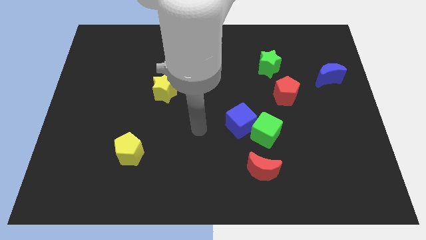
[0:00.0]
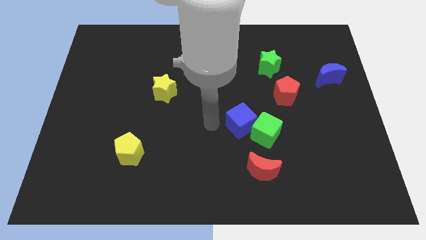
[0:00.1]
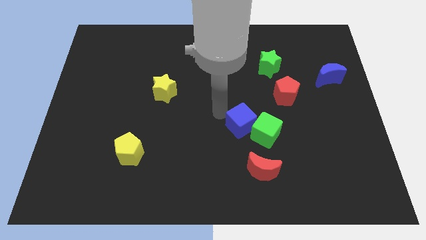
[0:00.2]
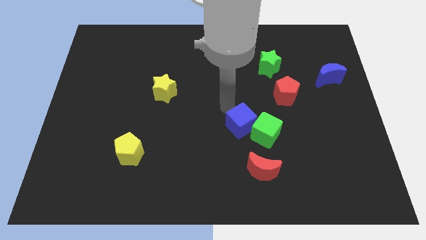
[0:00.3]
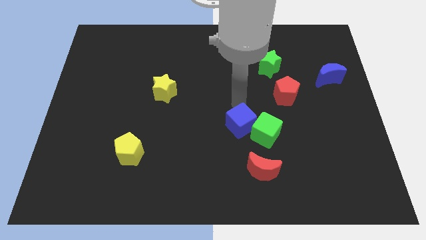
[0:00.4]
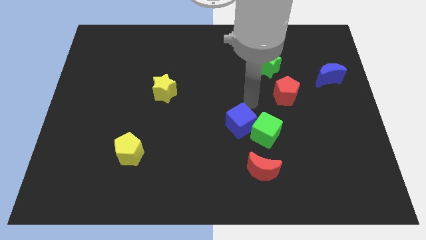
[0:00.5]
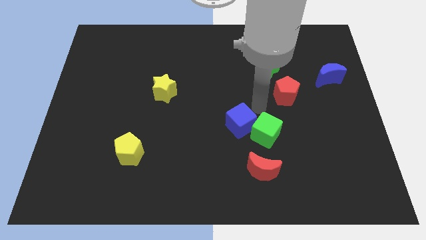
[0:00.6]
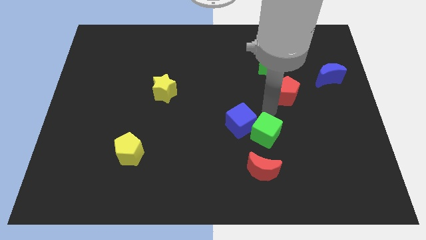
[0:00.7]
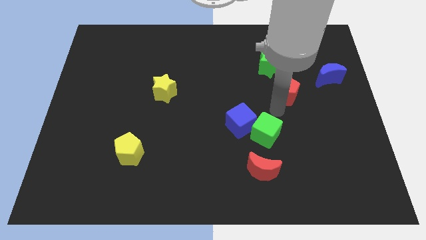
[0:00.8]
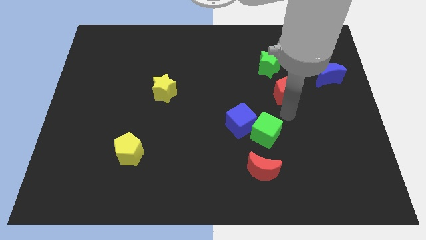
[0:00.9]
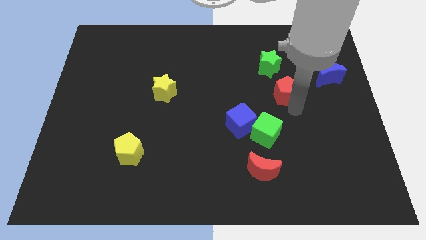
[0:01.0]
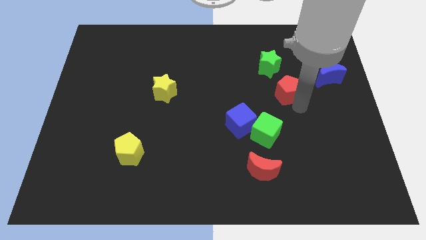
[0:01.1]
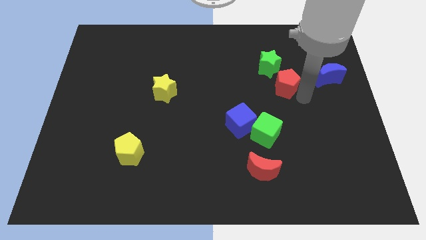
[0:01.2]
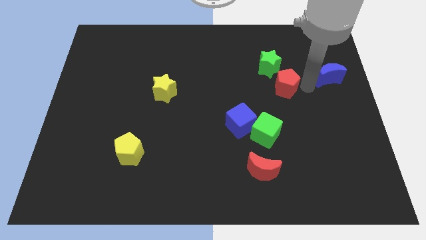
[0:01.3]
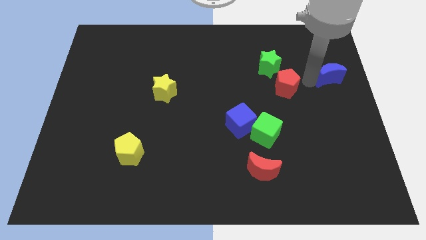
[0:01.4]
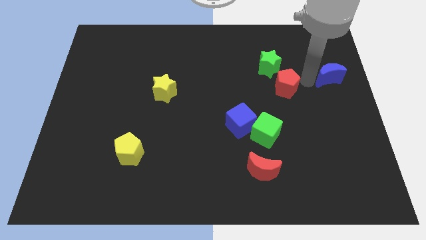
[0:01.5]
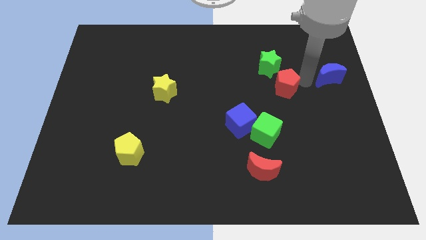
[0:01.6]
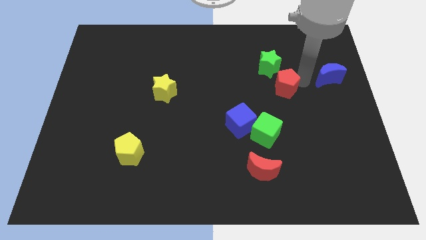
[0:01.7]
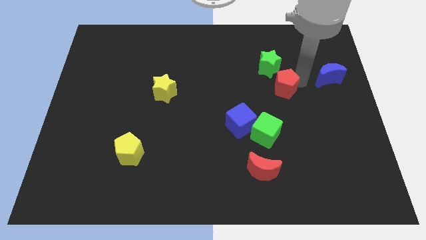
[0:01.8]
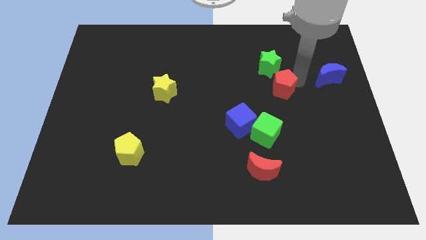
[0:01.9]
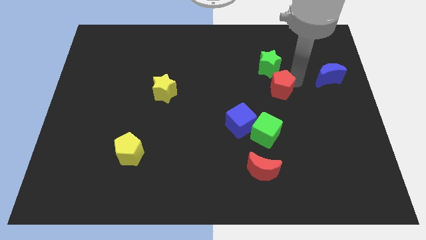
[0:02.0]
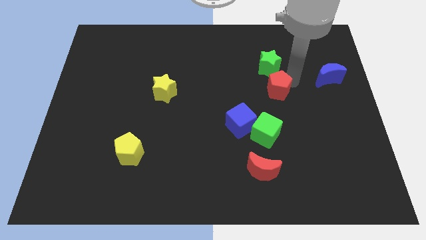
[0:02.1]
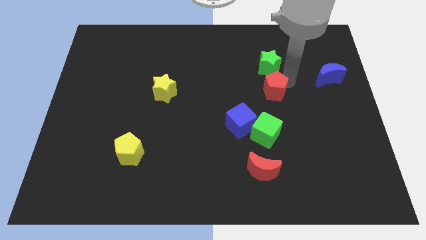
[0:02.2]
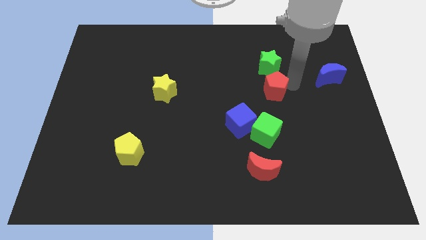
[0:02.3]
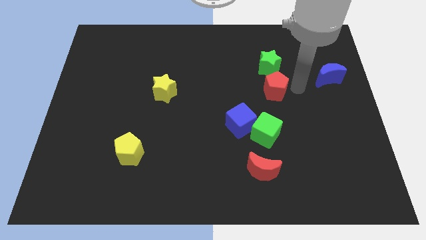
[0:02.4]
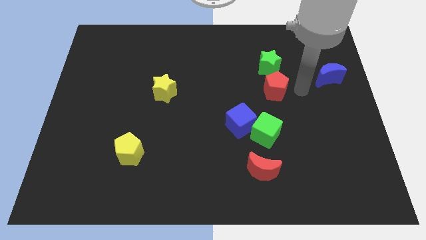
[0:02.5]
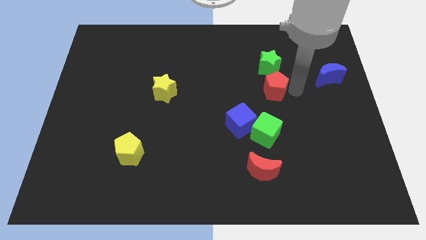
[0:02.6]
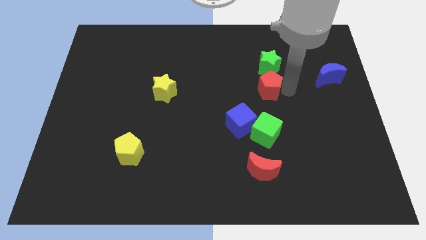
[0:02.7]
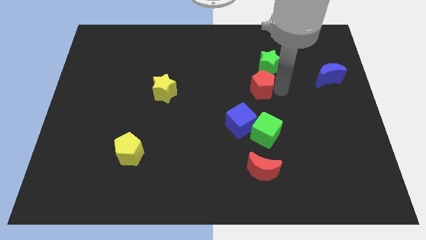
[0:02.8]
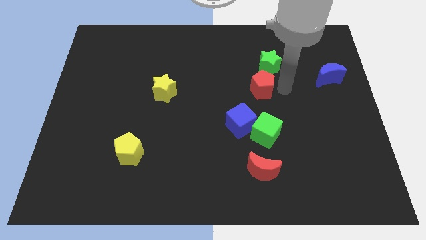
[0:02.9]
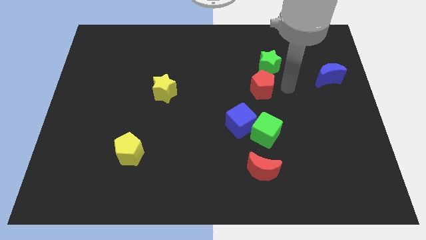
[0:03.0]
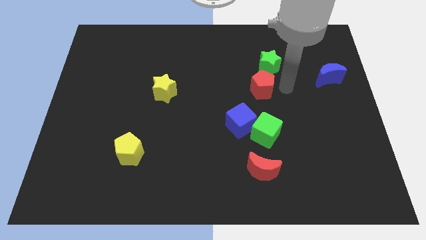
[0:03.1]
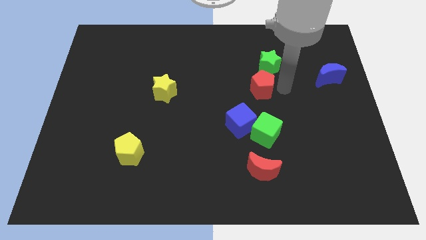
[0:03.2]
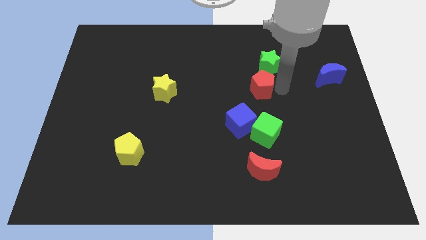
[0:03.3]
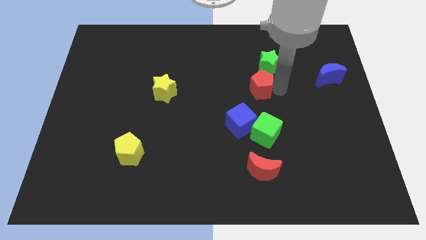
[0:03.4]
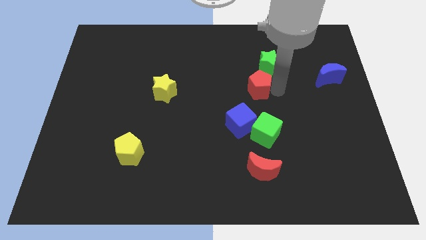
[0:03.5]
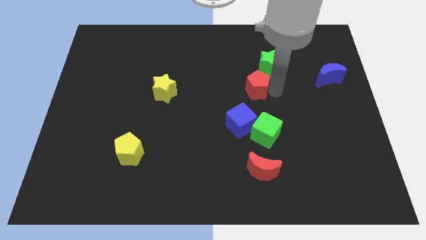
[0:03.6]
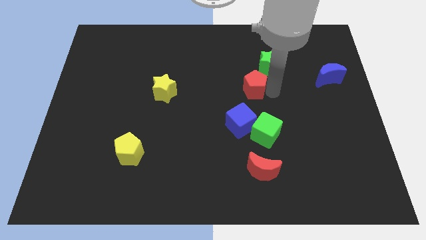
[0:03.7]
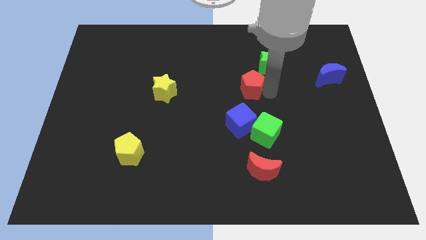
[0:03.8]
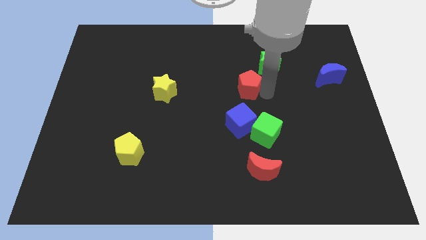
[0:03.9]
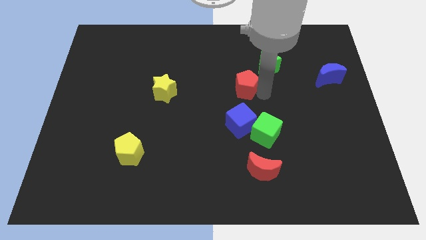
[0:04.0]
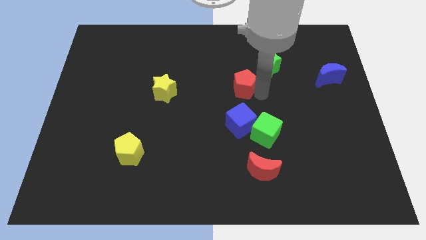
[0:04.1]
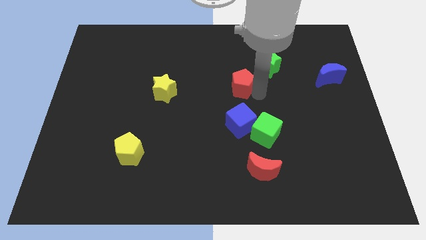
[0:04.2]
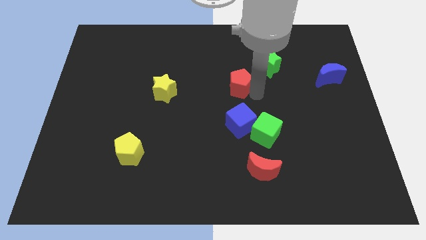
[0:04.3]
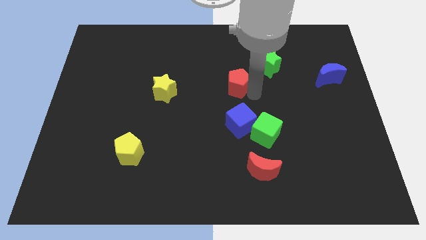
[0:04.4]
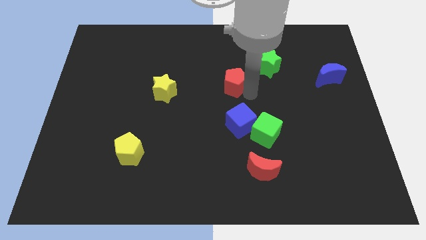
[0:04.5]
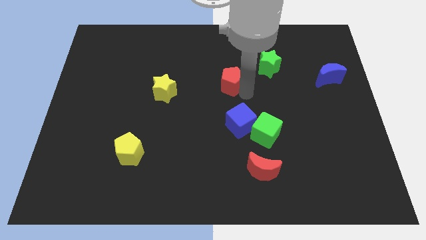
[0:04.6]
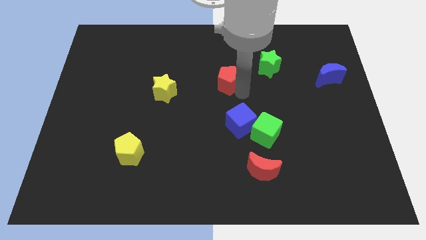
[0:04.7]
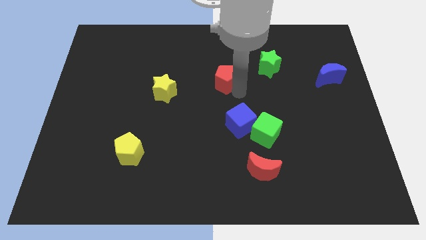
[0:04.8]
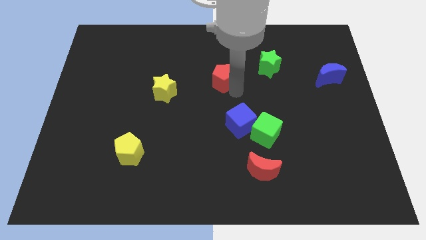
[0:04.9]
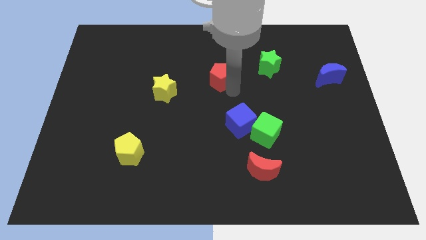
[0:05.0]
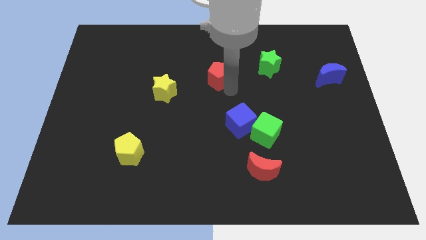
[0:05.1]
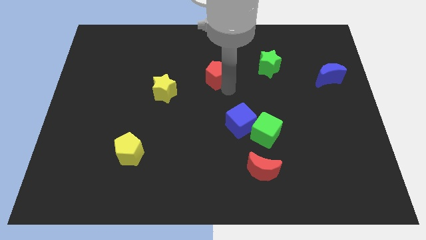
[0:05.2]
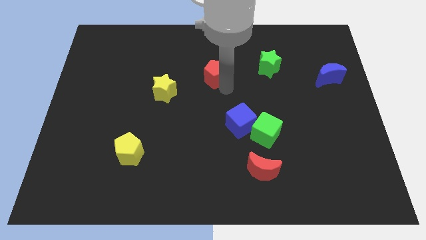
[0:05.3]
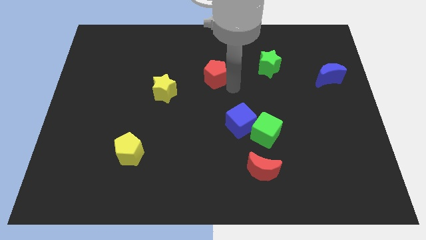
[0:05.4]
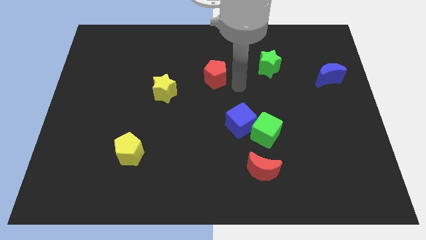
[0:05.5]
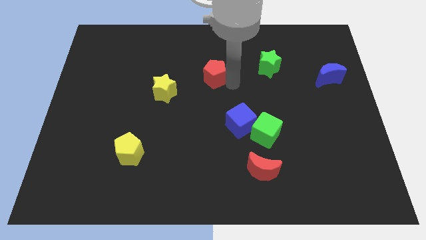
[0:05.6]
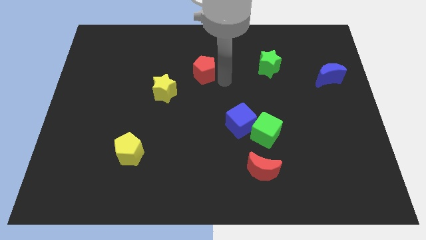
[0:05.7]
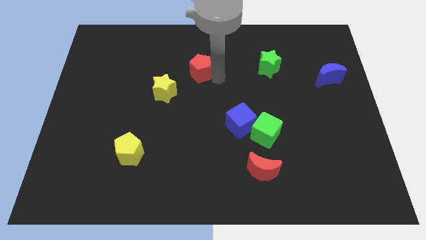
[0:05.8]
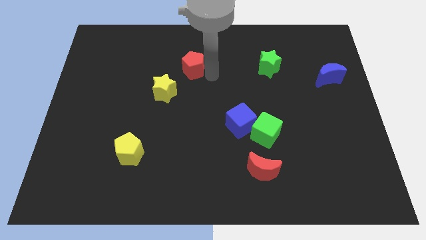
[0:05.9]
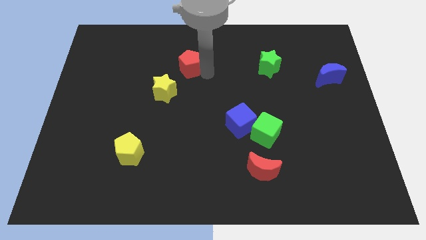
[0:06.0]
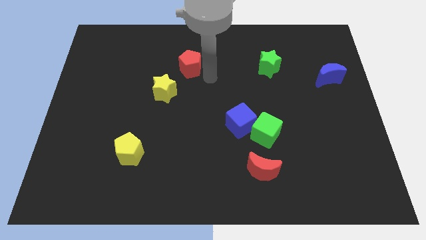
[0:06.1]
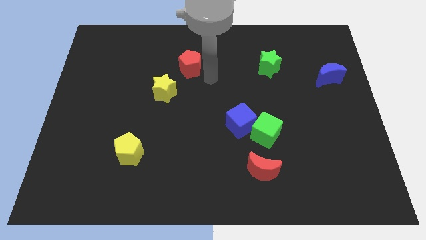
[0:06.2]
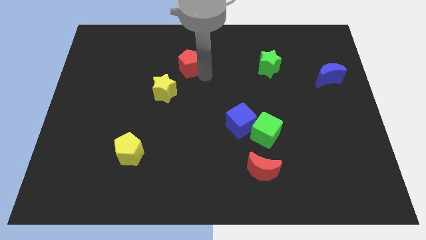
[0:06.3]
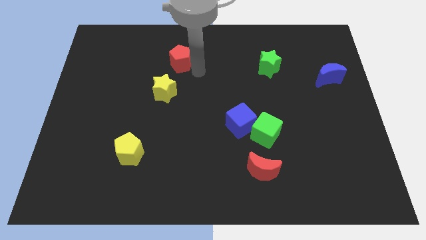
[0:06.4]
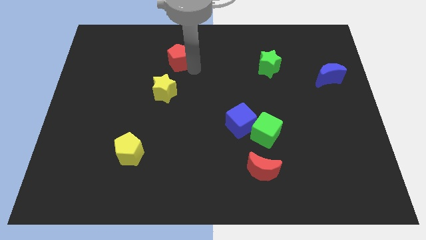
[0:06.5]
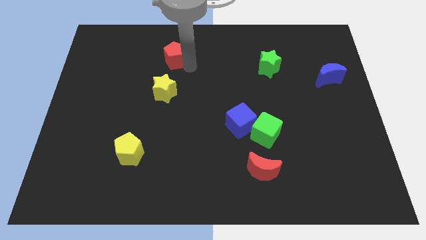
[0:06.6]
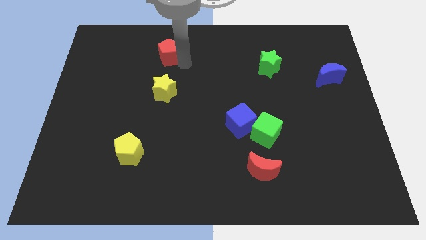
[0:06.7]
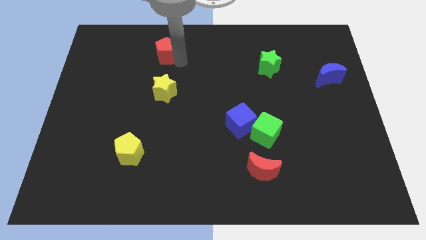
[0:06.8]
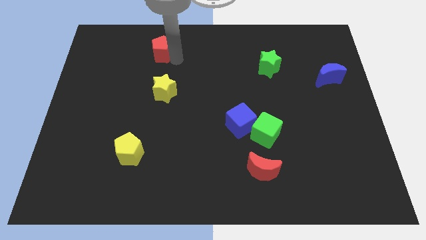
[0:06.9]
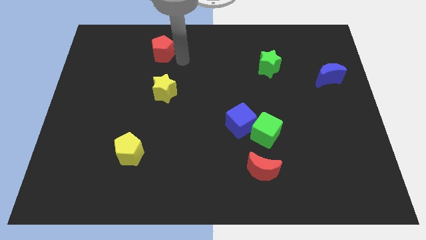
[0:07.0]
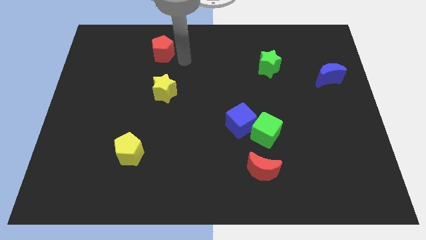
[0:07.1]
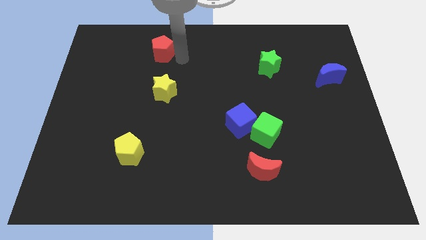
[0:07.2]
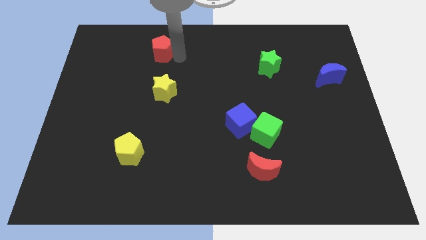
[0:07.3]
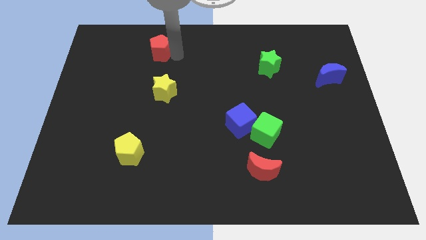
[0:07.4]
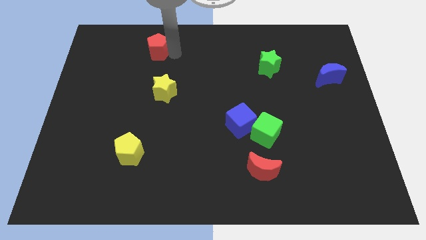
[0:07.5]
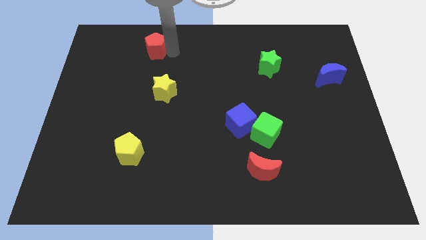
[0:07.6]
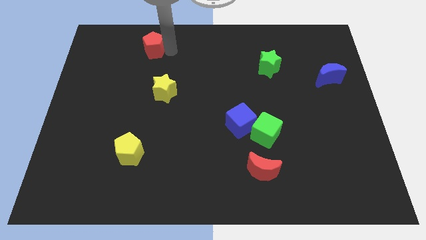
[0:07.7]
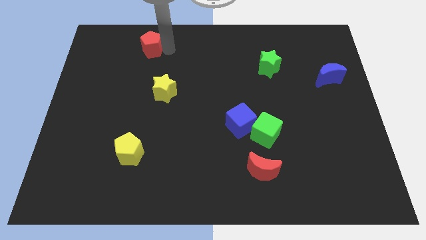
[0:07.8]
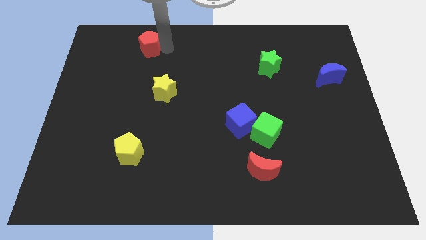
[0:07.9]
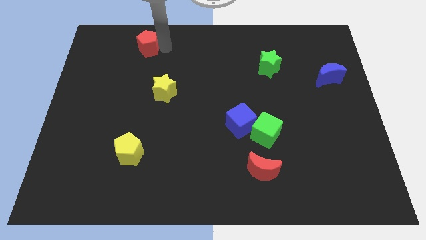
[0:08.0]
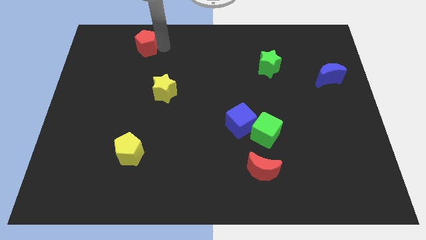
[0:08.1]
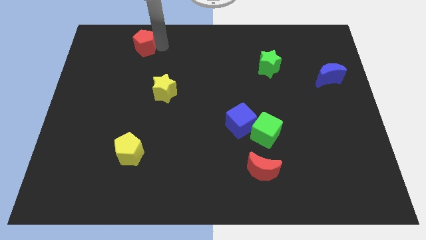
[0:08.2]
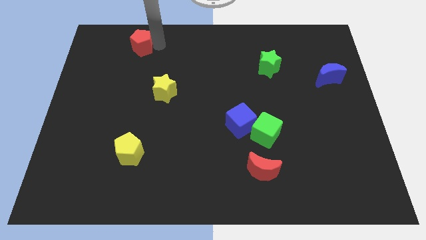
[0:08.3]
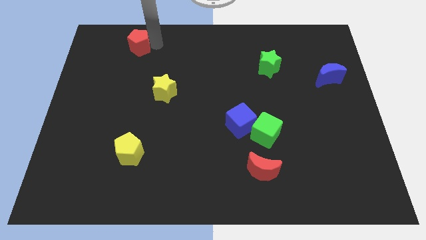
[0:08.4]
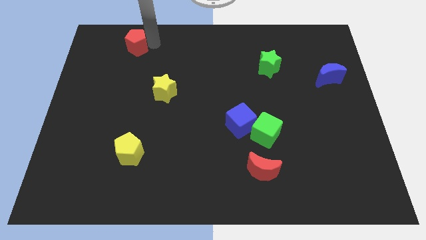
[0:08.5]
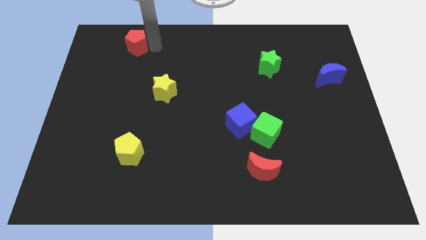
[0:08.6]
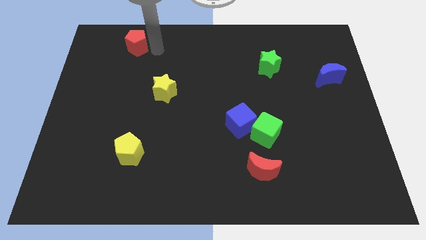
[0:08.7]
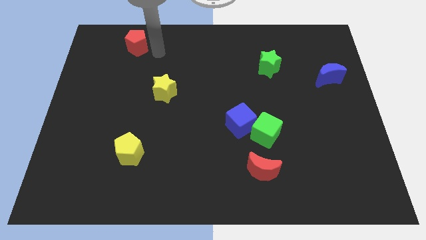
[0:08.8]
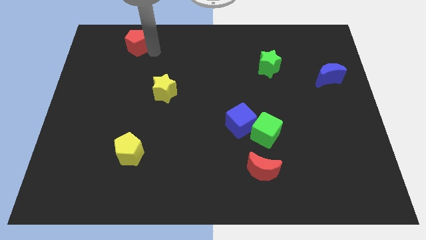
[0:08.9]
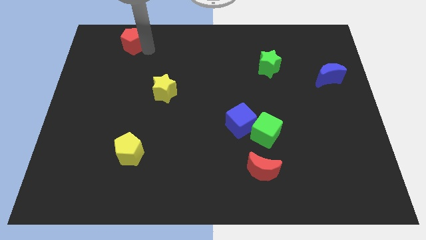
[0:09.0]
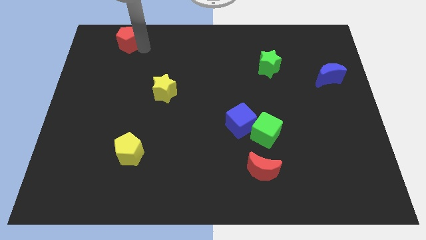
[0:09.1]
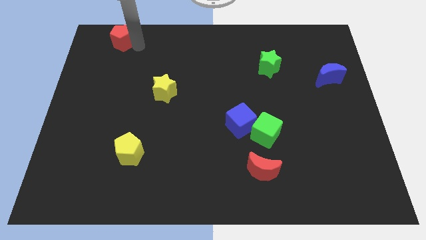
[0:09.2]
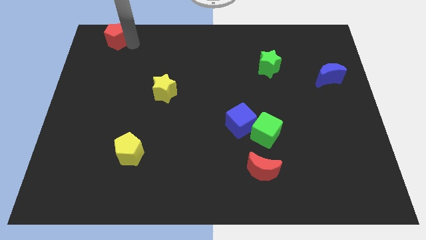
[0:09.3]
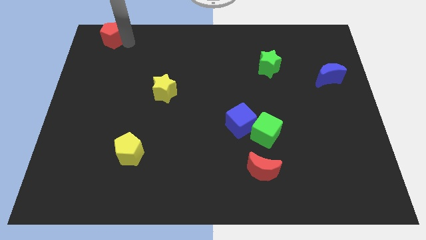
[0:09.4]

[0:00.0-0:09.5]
move the red pentagon to the top left corner
